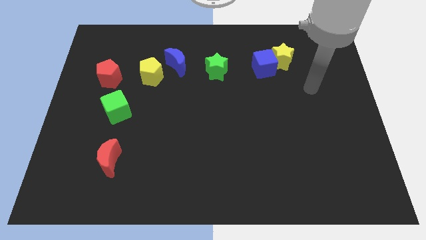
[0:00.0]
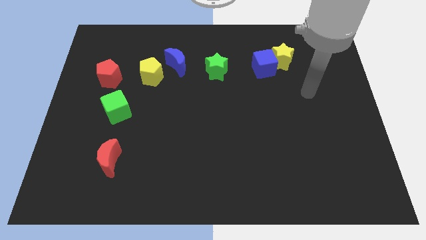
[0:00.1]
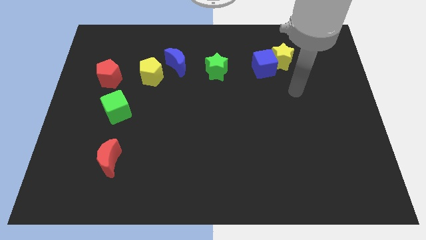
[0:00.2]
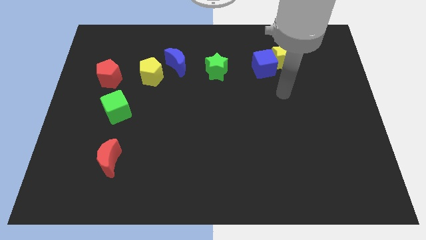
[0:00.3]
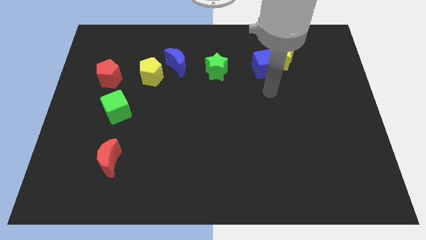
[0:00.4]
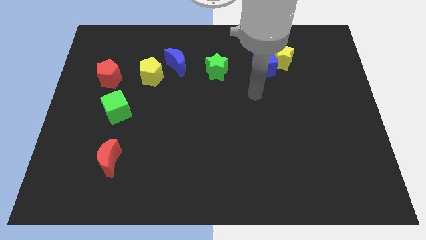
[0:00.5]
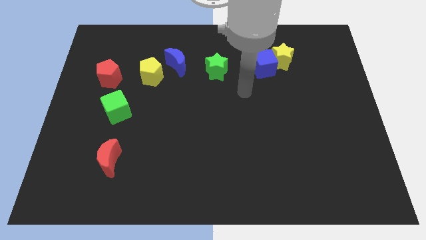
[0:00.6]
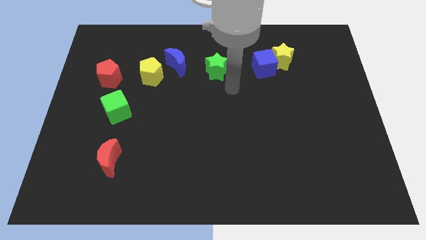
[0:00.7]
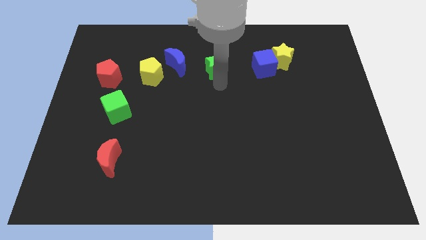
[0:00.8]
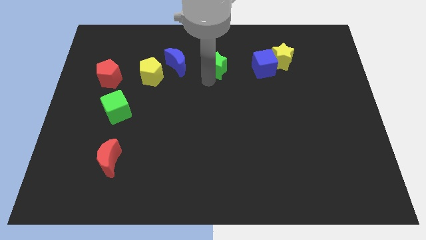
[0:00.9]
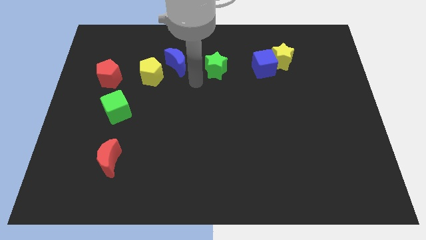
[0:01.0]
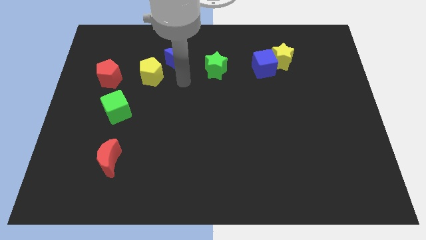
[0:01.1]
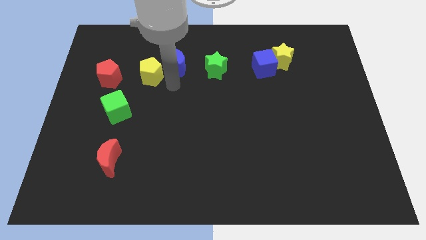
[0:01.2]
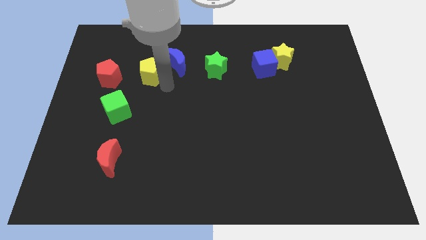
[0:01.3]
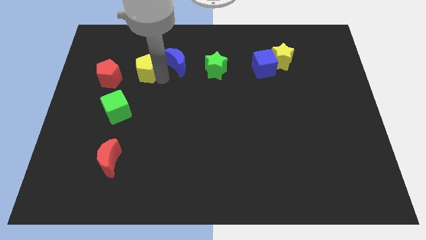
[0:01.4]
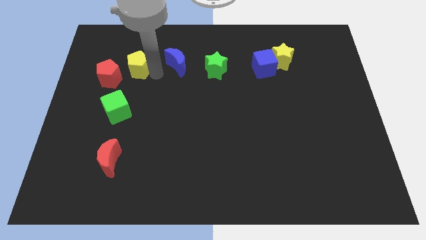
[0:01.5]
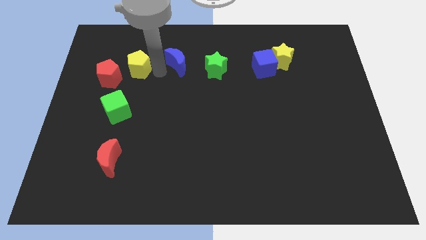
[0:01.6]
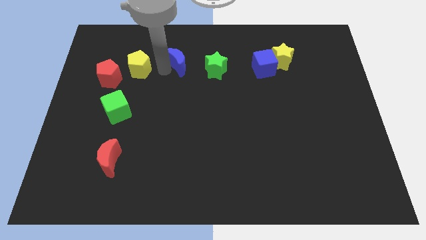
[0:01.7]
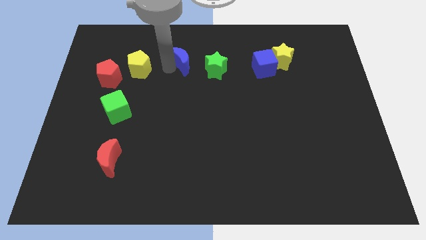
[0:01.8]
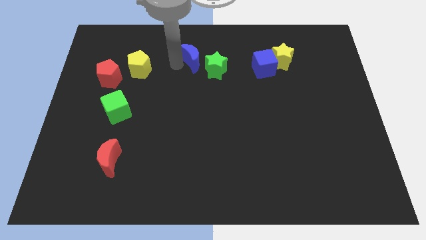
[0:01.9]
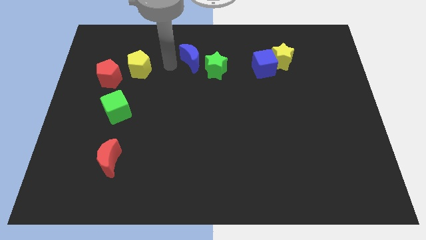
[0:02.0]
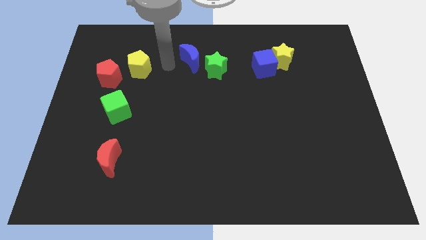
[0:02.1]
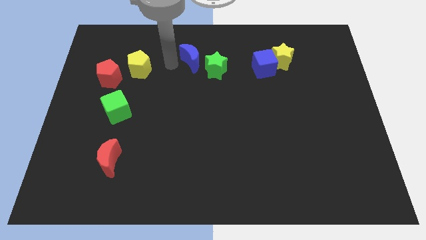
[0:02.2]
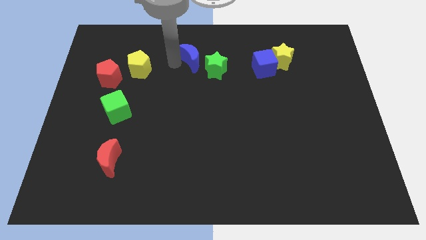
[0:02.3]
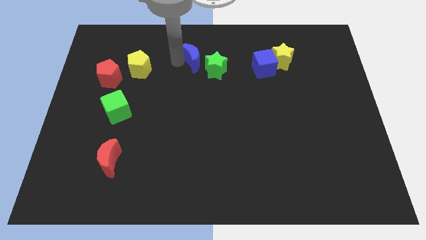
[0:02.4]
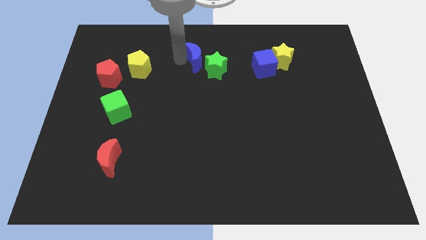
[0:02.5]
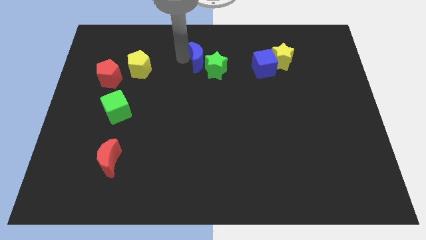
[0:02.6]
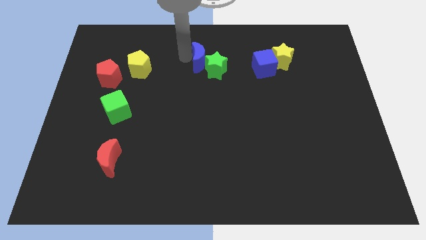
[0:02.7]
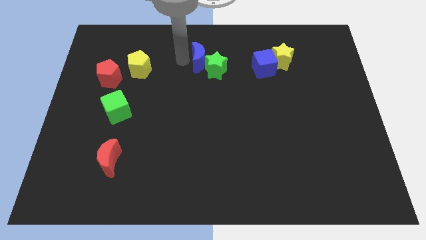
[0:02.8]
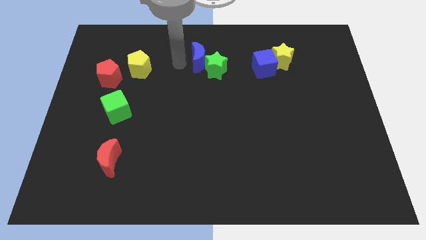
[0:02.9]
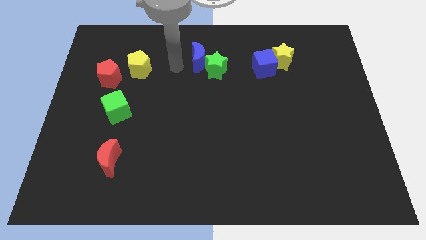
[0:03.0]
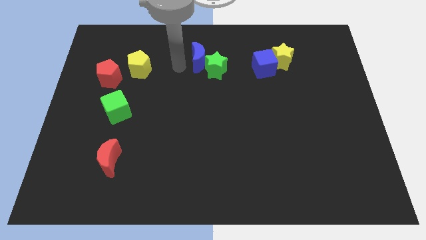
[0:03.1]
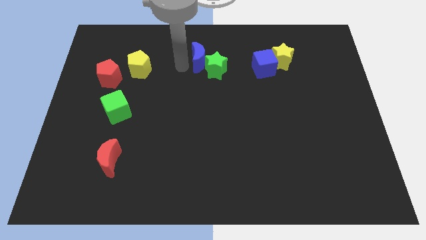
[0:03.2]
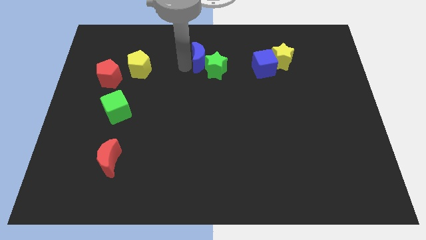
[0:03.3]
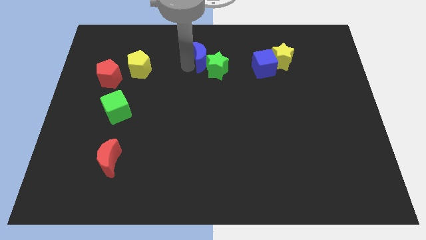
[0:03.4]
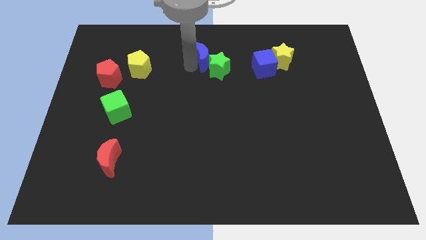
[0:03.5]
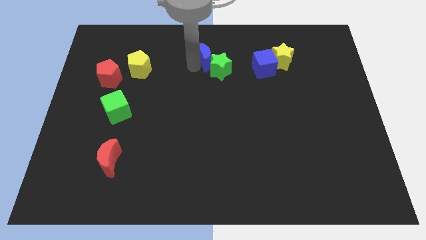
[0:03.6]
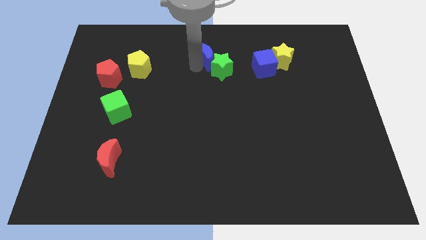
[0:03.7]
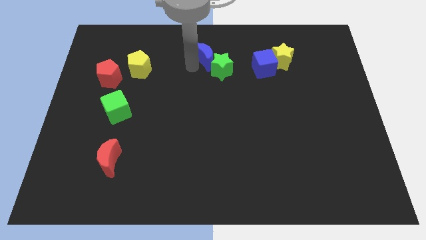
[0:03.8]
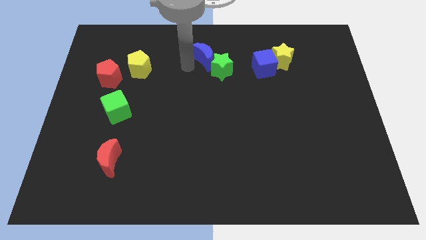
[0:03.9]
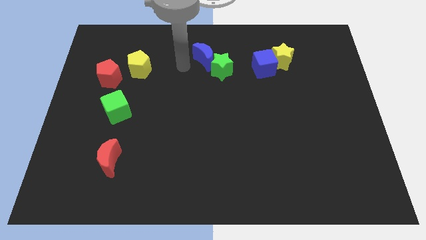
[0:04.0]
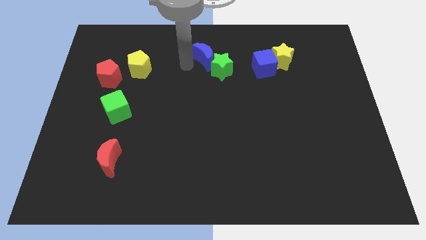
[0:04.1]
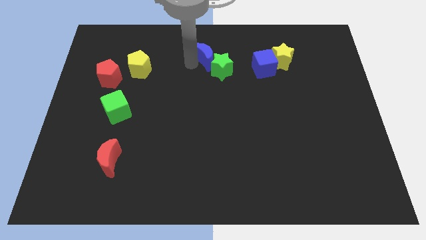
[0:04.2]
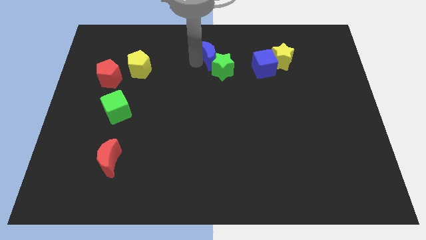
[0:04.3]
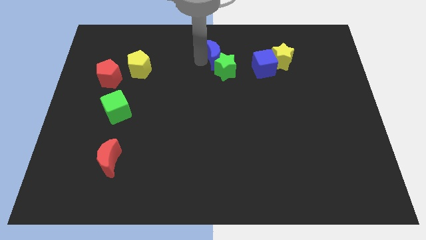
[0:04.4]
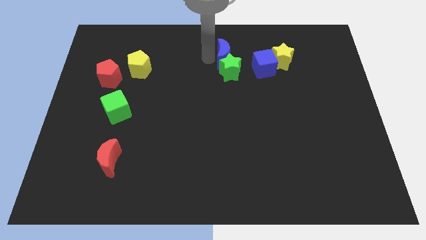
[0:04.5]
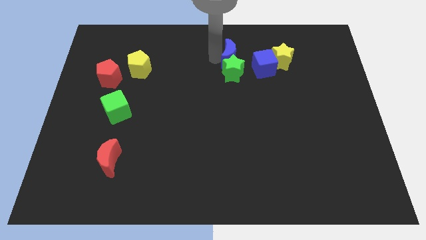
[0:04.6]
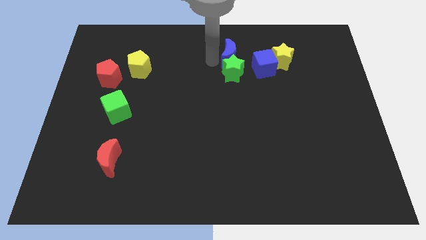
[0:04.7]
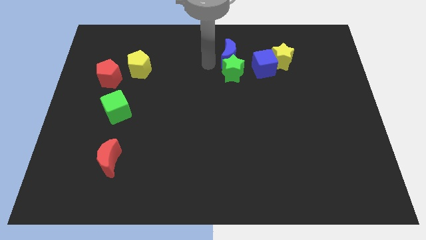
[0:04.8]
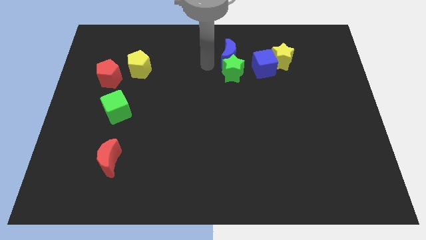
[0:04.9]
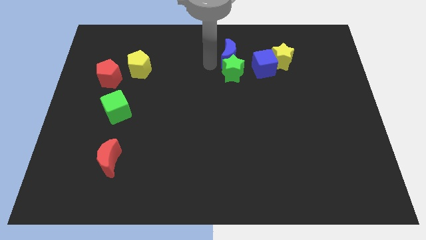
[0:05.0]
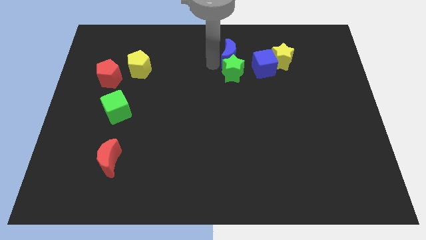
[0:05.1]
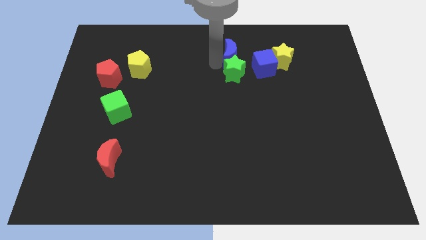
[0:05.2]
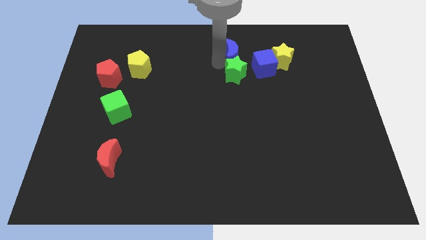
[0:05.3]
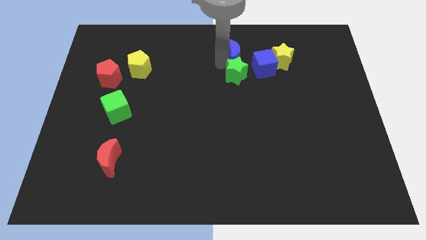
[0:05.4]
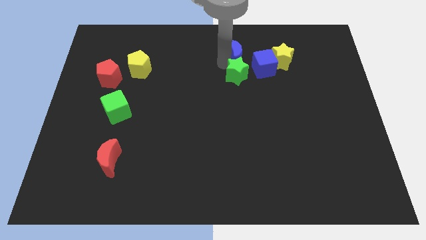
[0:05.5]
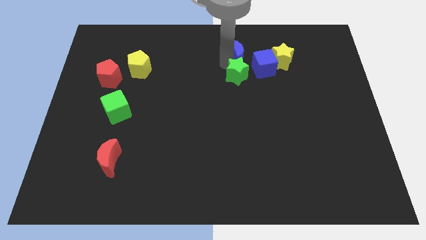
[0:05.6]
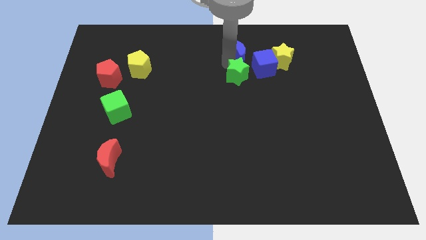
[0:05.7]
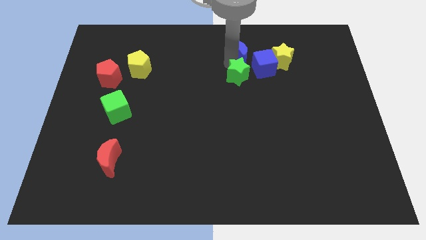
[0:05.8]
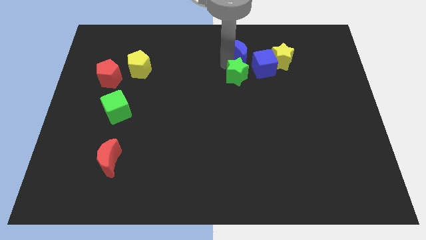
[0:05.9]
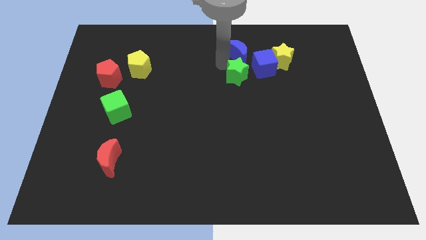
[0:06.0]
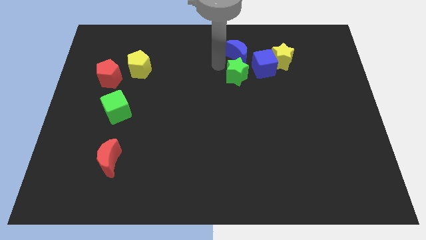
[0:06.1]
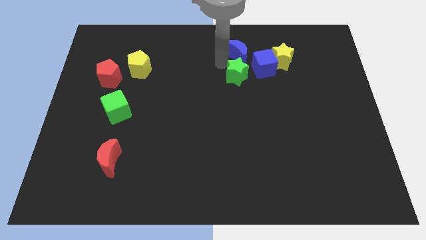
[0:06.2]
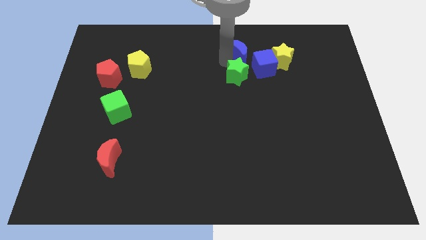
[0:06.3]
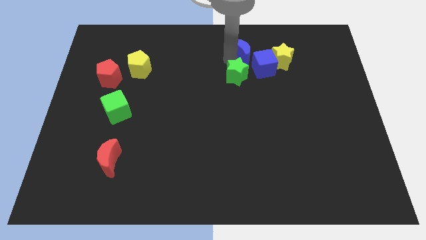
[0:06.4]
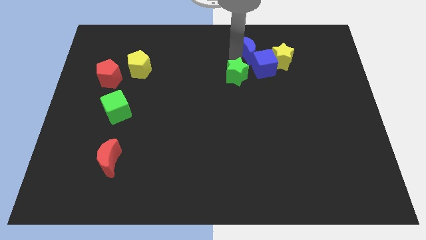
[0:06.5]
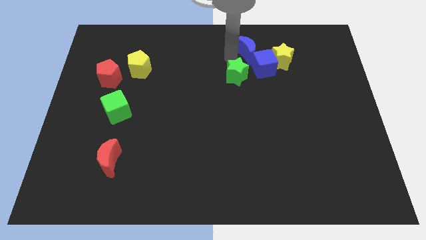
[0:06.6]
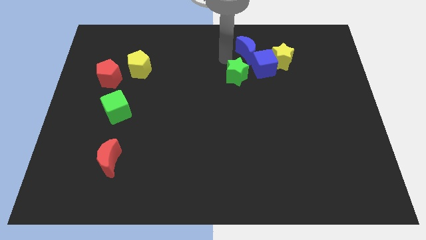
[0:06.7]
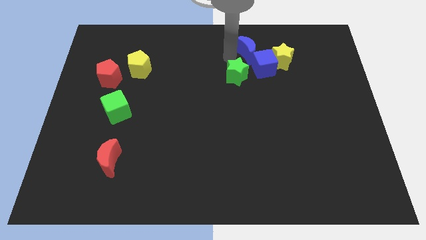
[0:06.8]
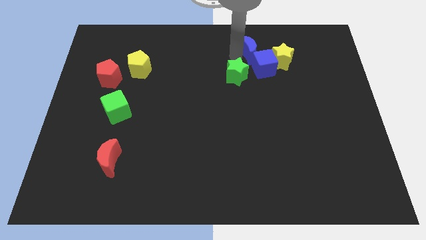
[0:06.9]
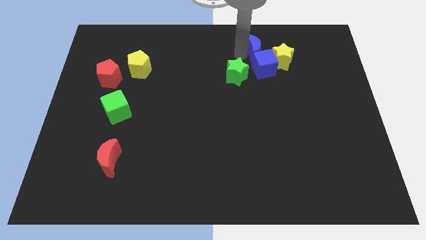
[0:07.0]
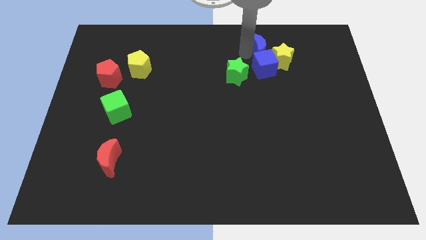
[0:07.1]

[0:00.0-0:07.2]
push the blue moon to the right

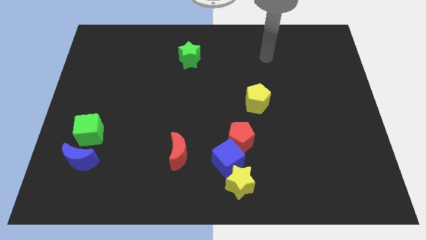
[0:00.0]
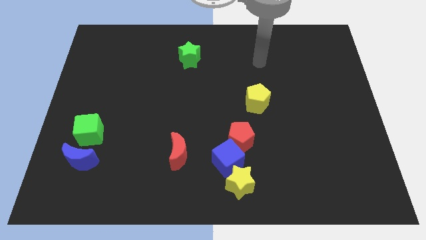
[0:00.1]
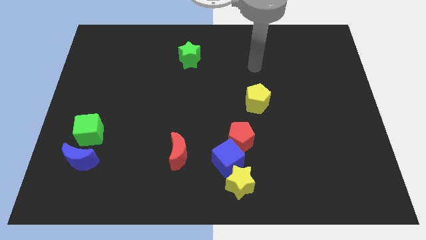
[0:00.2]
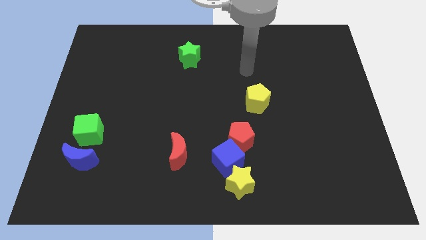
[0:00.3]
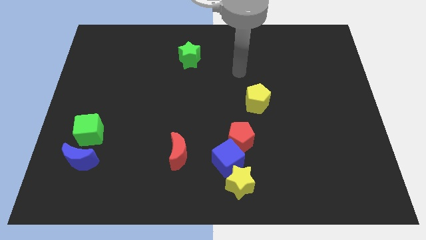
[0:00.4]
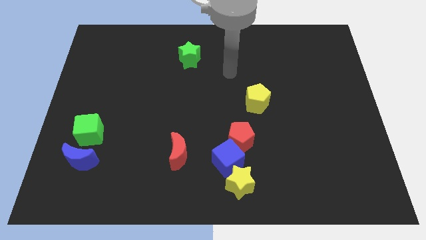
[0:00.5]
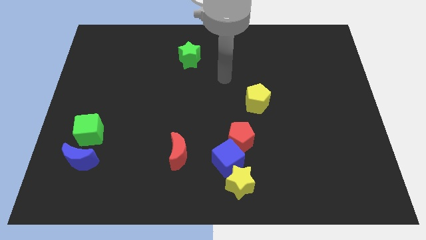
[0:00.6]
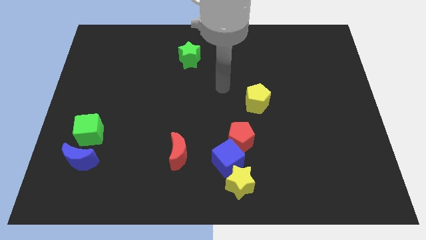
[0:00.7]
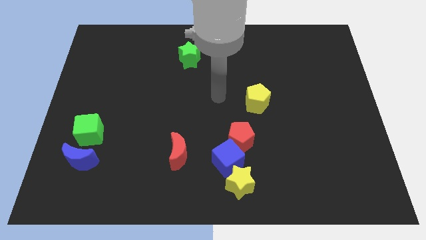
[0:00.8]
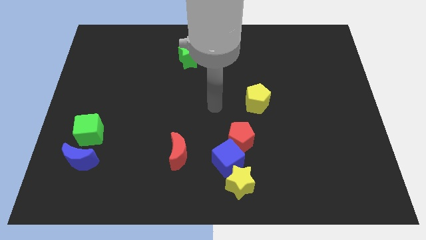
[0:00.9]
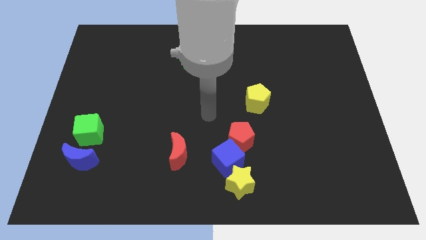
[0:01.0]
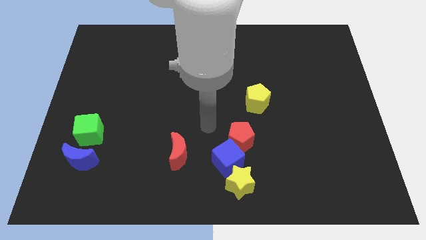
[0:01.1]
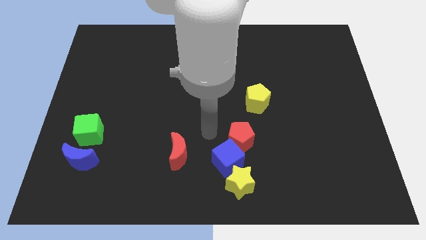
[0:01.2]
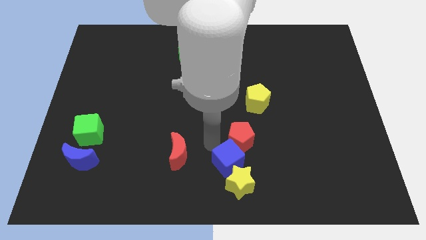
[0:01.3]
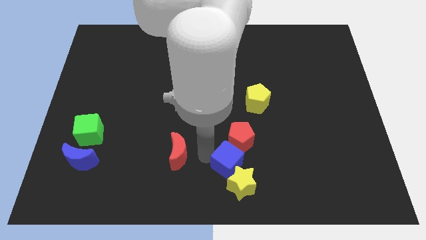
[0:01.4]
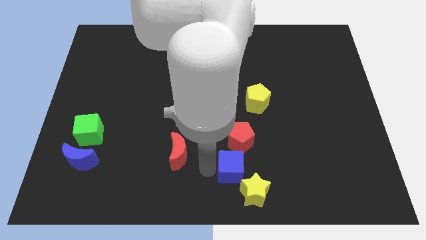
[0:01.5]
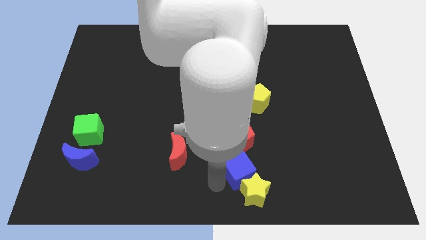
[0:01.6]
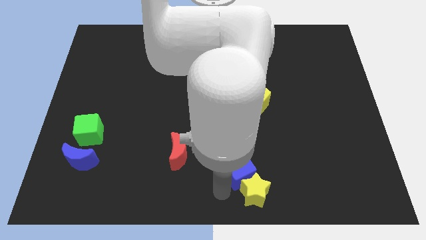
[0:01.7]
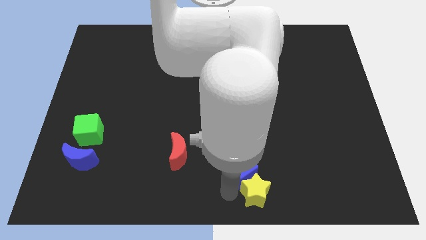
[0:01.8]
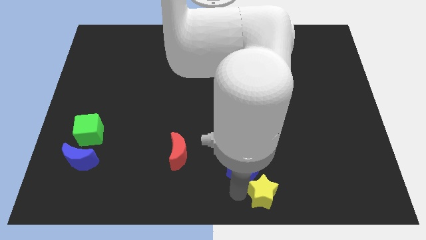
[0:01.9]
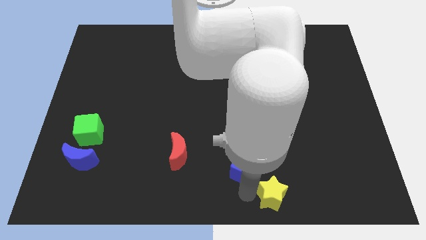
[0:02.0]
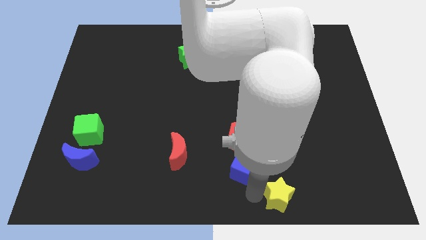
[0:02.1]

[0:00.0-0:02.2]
slightly slide the yellow star to the right
